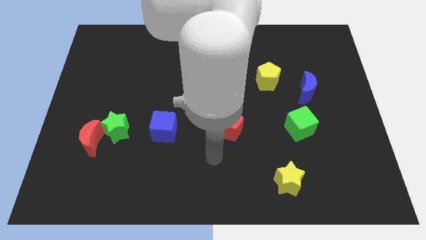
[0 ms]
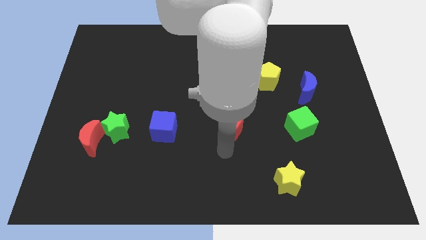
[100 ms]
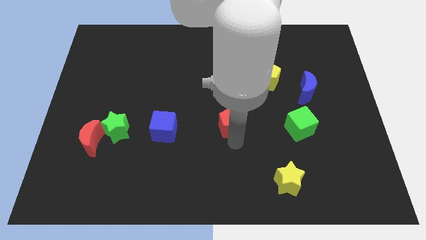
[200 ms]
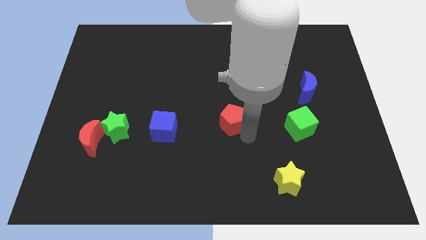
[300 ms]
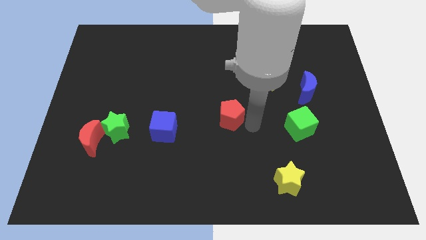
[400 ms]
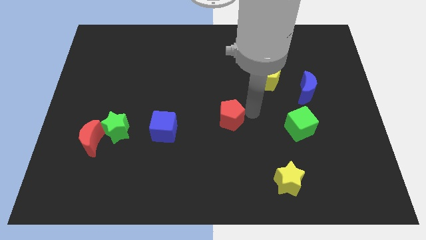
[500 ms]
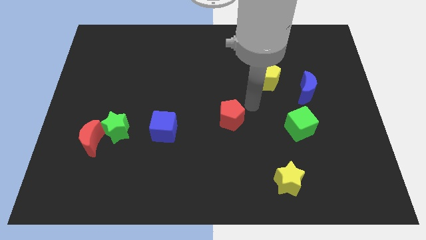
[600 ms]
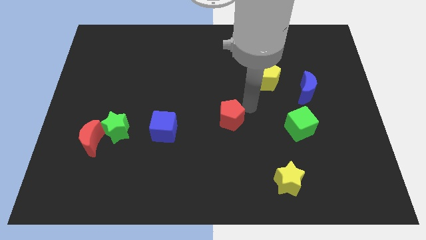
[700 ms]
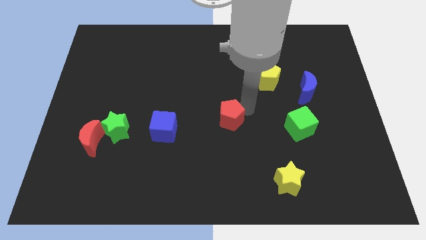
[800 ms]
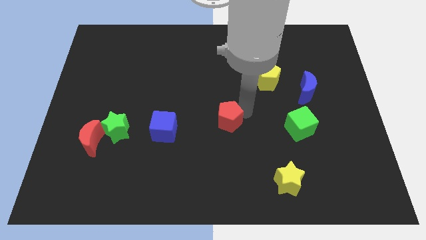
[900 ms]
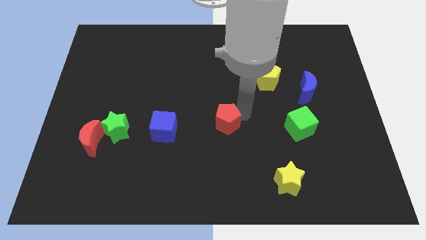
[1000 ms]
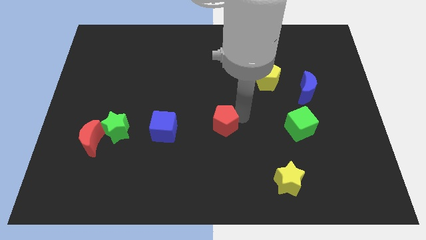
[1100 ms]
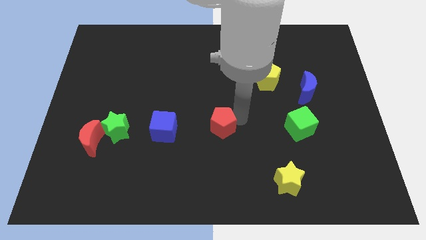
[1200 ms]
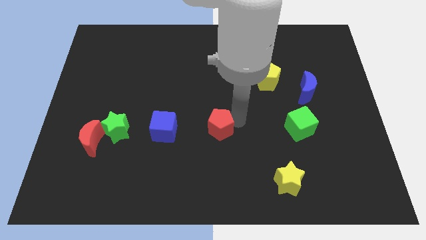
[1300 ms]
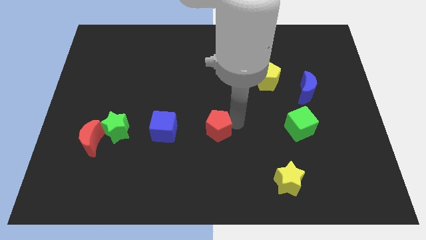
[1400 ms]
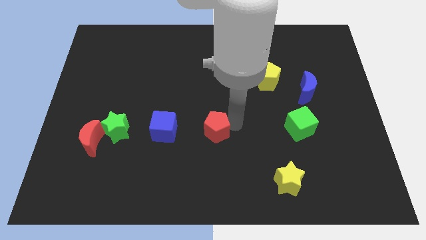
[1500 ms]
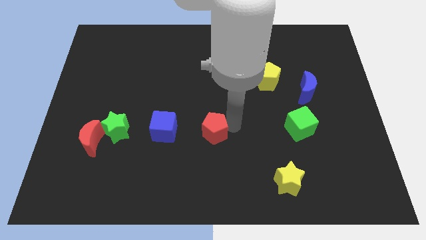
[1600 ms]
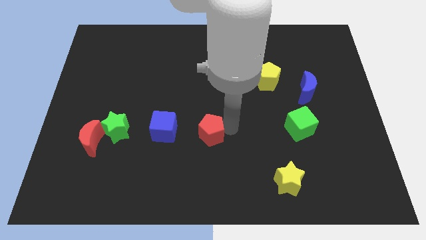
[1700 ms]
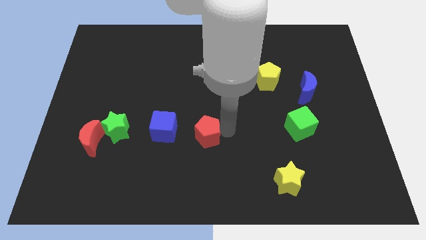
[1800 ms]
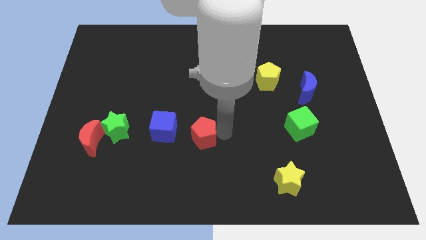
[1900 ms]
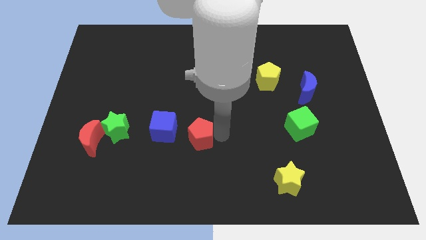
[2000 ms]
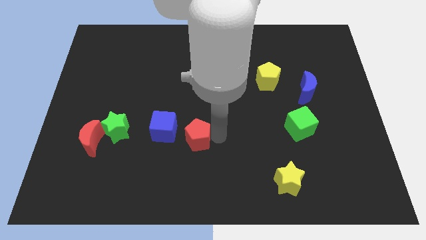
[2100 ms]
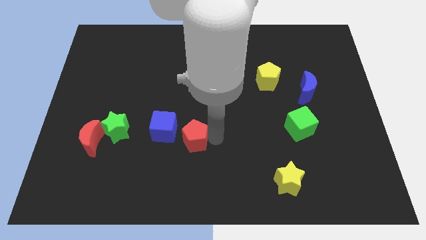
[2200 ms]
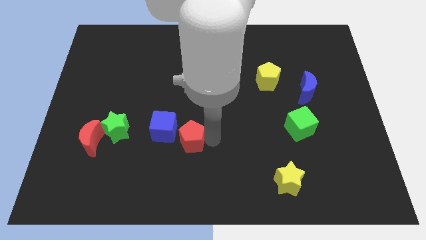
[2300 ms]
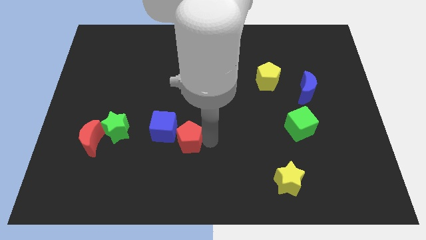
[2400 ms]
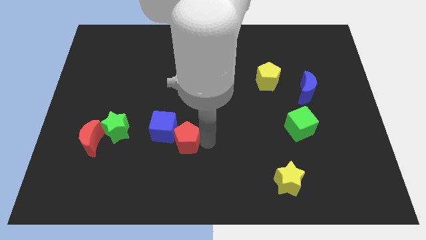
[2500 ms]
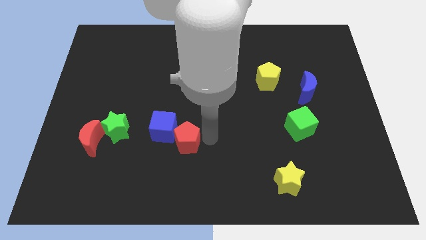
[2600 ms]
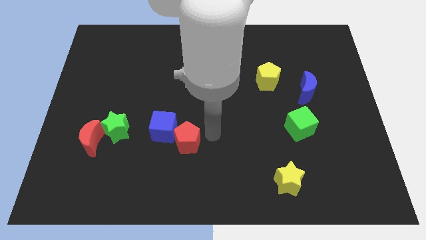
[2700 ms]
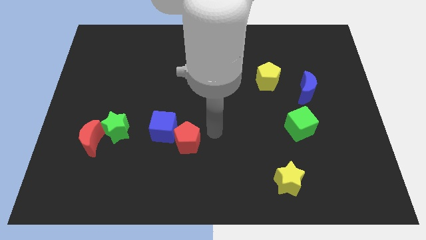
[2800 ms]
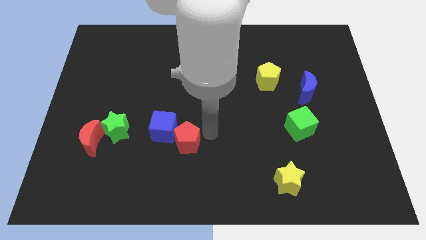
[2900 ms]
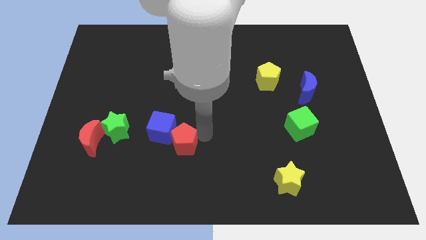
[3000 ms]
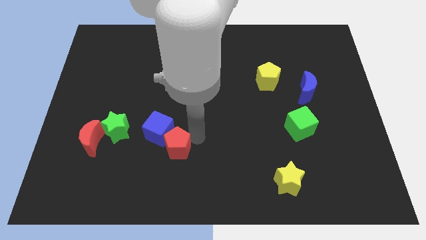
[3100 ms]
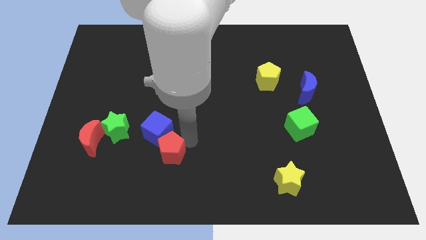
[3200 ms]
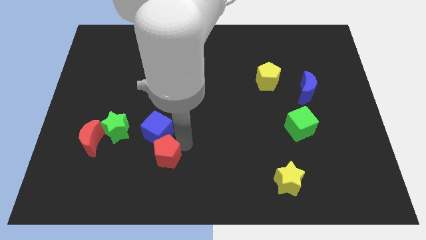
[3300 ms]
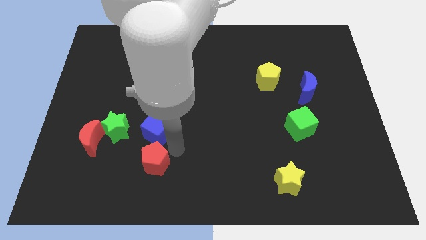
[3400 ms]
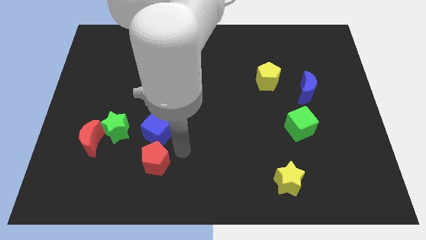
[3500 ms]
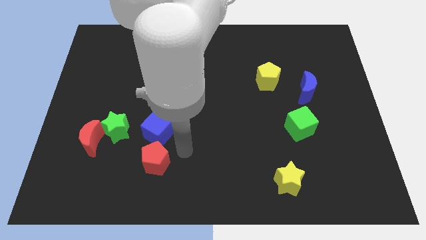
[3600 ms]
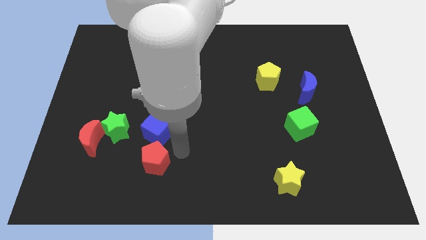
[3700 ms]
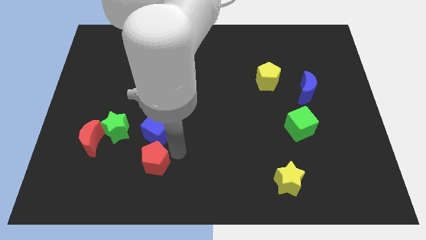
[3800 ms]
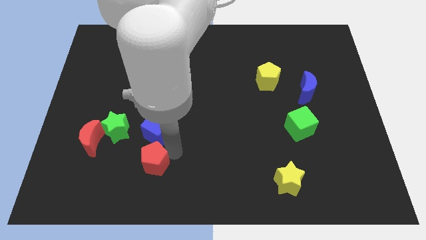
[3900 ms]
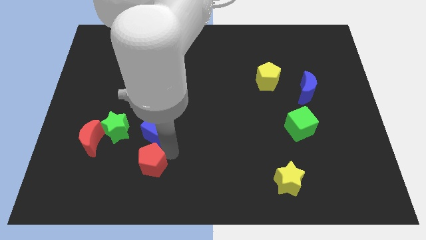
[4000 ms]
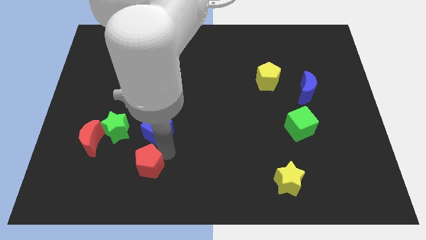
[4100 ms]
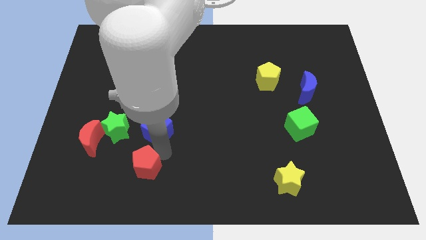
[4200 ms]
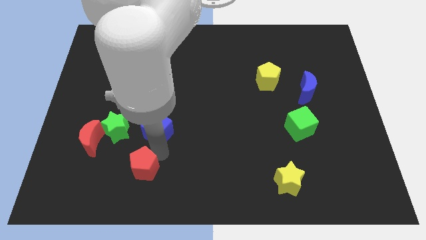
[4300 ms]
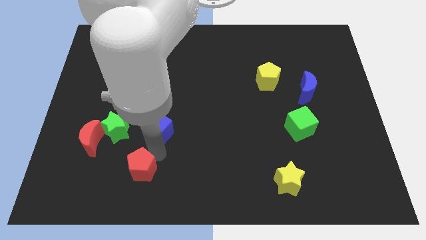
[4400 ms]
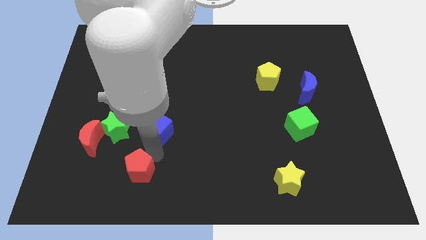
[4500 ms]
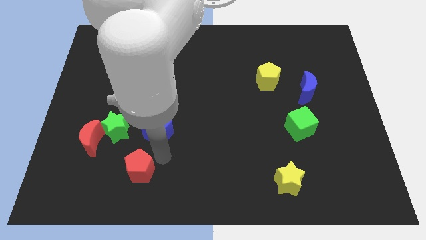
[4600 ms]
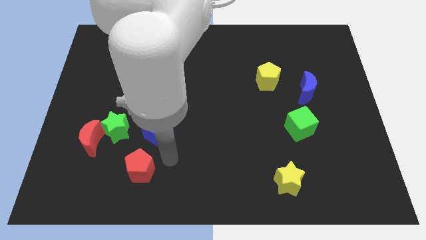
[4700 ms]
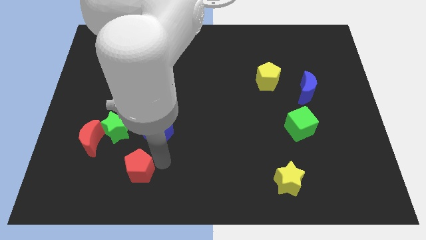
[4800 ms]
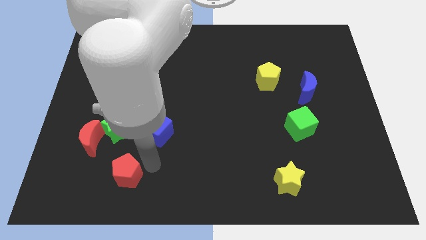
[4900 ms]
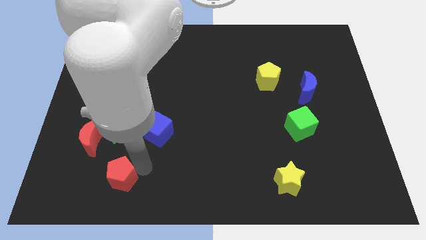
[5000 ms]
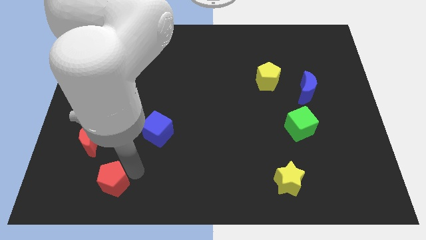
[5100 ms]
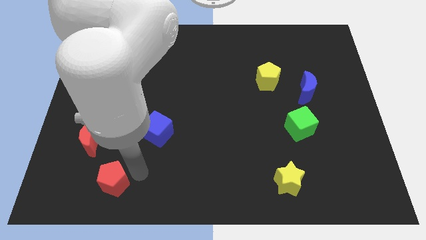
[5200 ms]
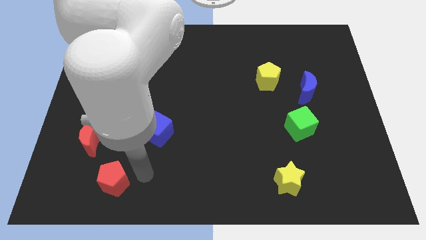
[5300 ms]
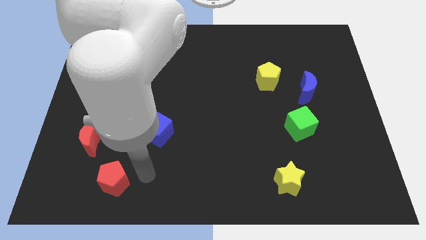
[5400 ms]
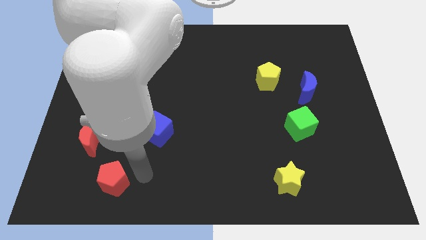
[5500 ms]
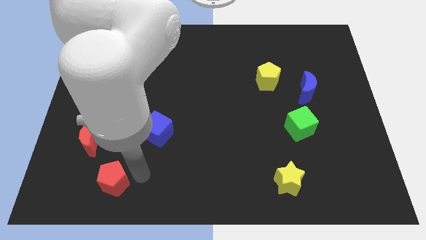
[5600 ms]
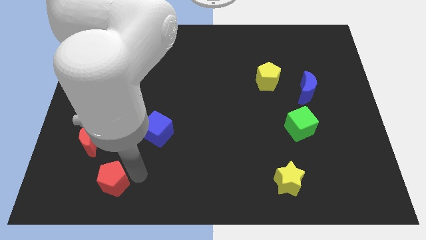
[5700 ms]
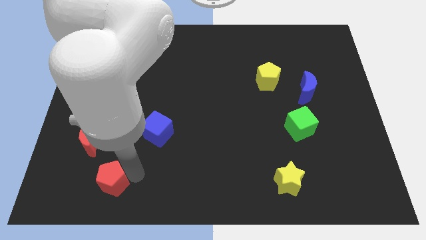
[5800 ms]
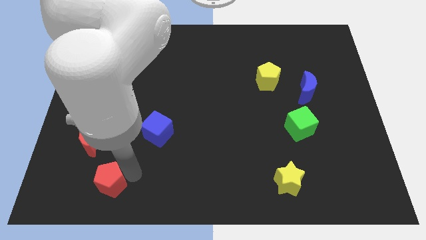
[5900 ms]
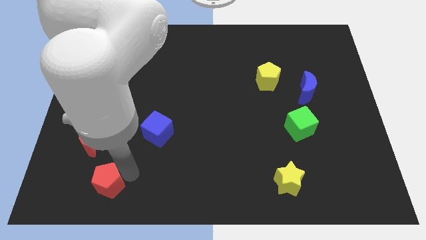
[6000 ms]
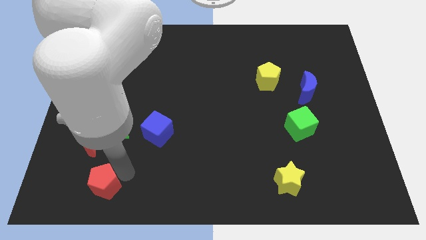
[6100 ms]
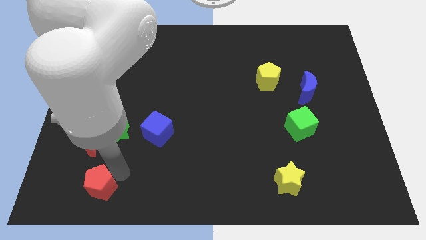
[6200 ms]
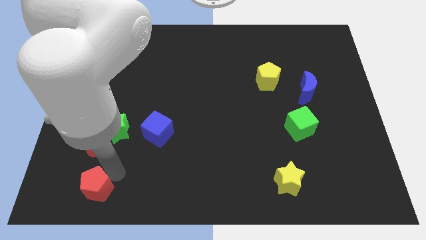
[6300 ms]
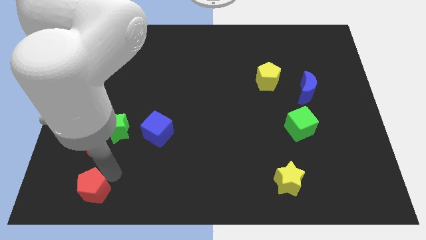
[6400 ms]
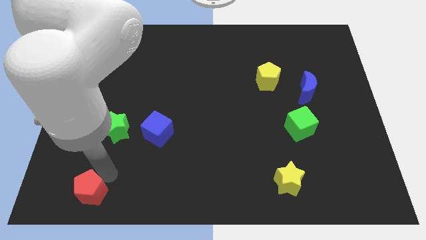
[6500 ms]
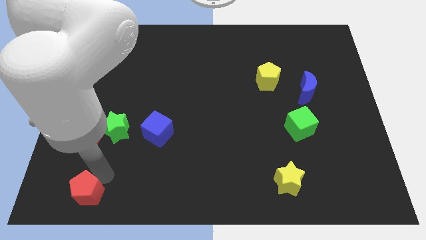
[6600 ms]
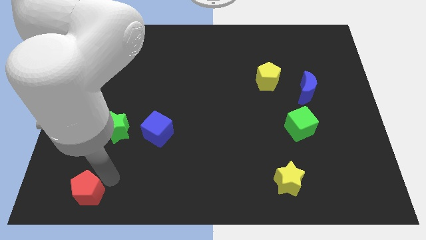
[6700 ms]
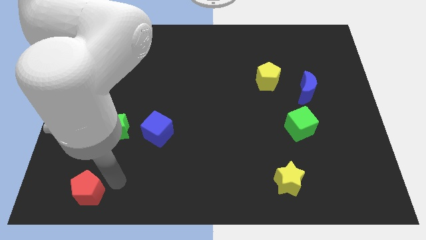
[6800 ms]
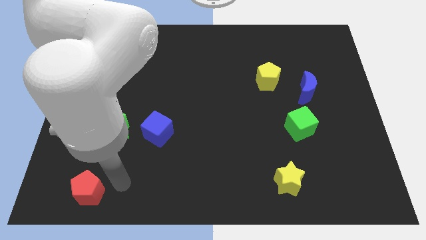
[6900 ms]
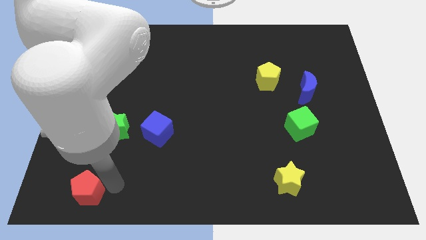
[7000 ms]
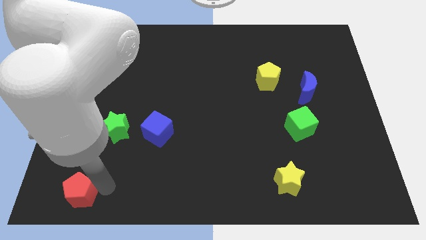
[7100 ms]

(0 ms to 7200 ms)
push the red pentagon to the lower left corner
